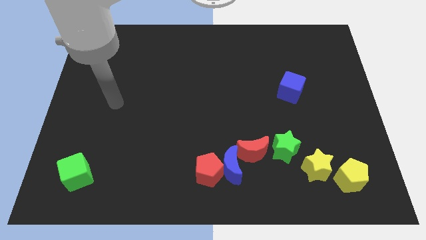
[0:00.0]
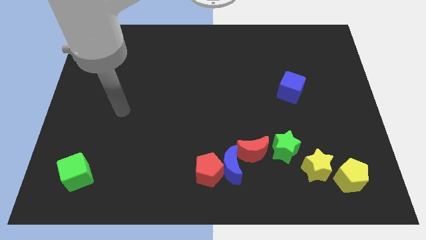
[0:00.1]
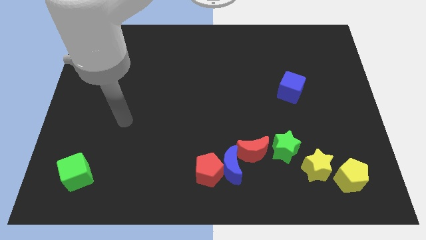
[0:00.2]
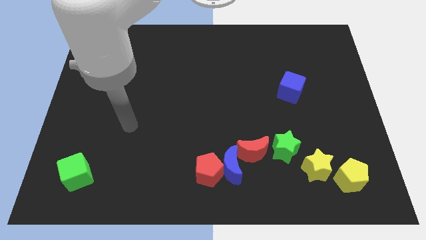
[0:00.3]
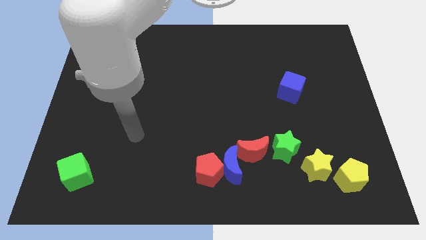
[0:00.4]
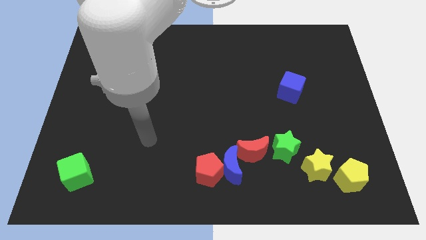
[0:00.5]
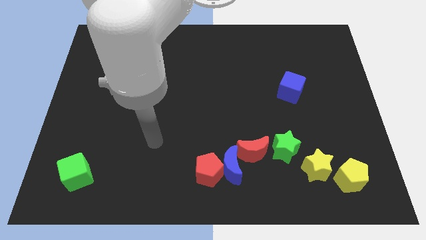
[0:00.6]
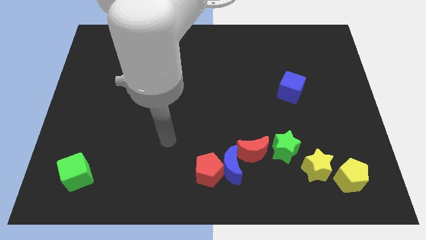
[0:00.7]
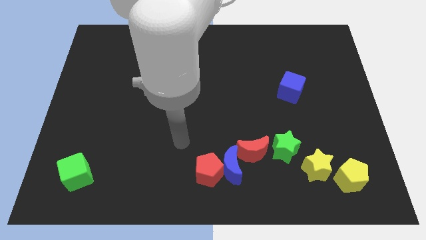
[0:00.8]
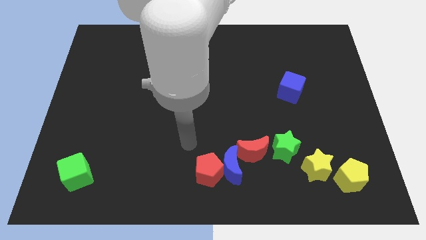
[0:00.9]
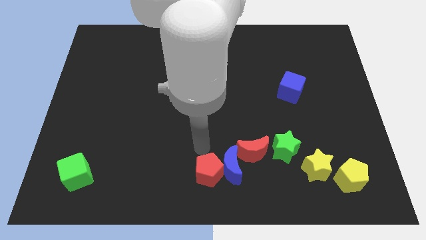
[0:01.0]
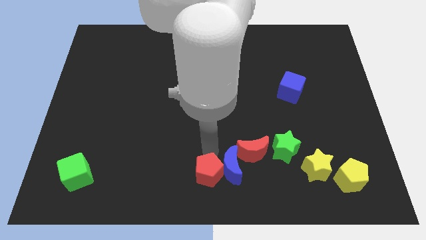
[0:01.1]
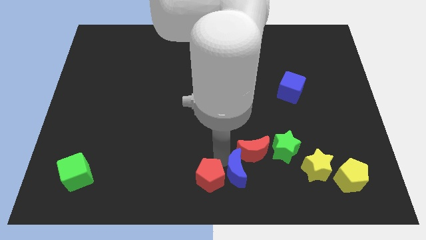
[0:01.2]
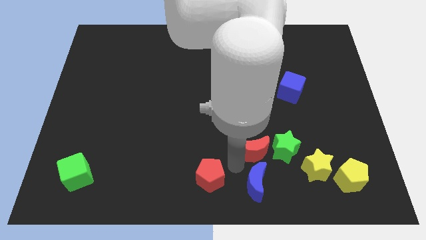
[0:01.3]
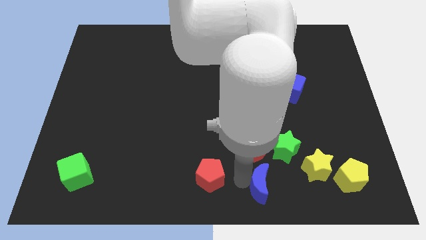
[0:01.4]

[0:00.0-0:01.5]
pull the red pentagon apart from the blue moon

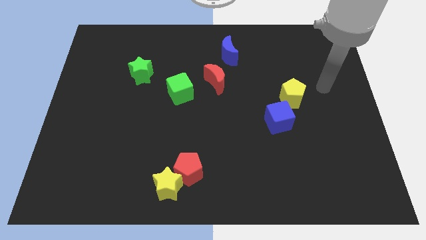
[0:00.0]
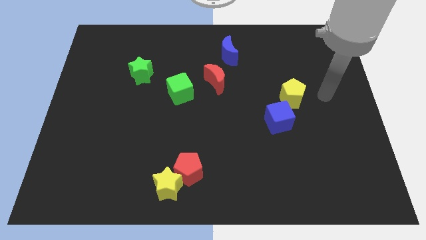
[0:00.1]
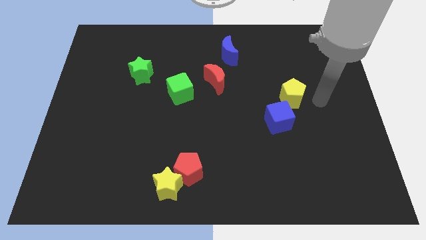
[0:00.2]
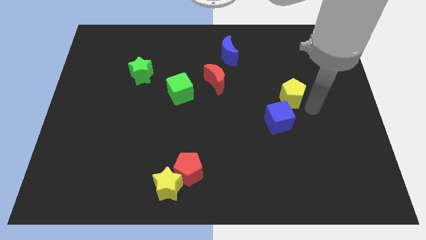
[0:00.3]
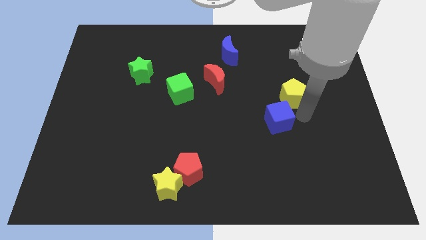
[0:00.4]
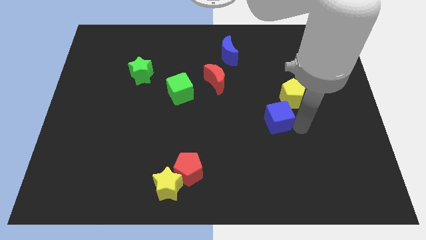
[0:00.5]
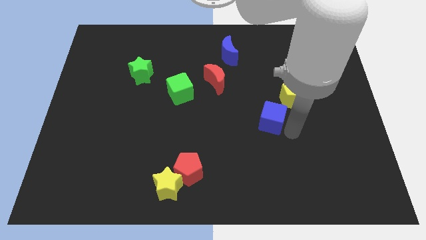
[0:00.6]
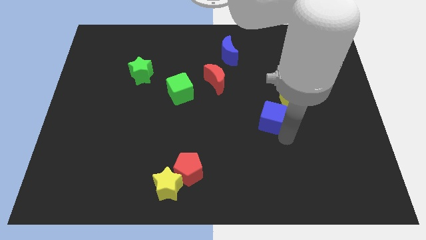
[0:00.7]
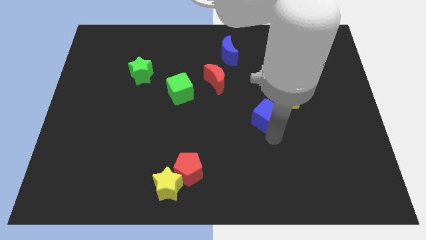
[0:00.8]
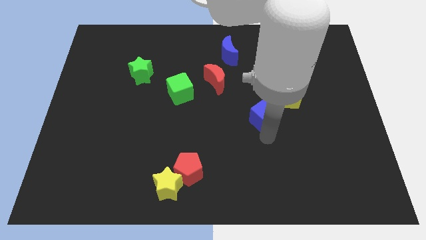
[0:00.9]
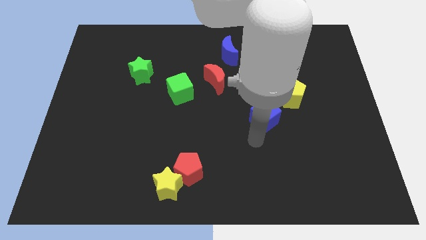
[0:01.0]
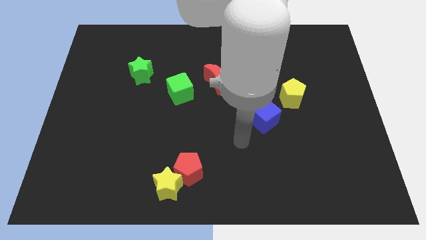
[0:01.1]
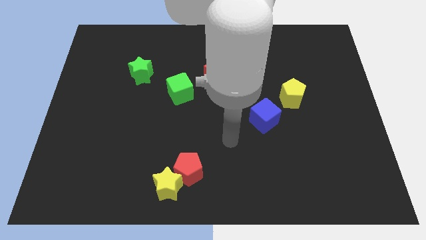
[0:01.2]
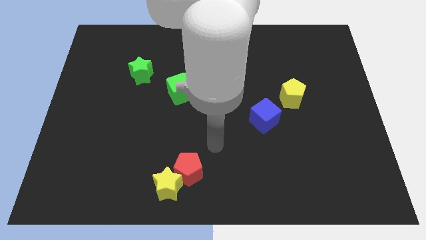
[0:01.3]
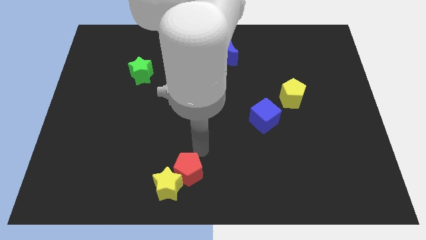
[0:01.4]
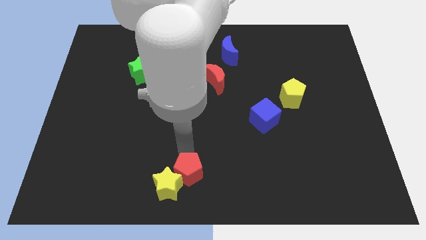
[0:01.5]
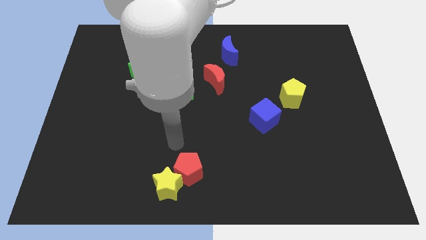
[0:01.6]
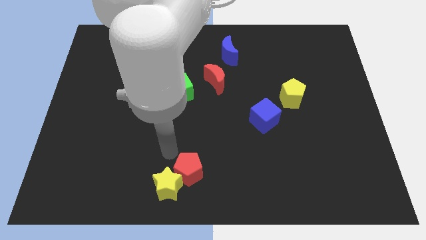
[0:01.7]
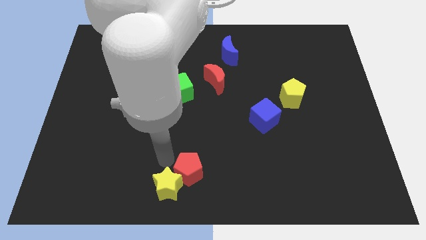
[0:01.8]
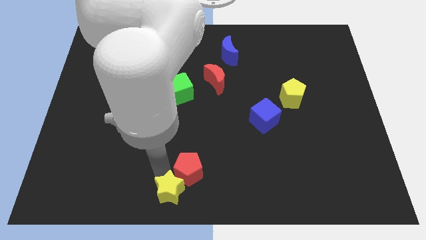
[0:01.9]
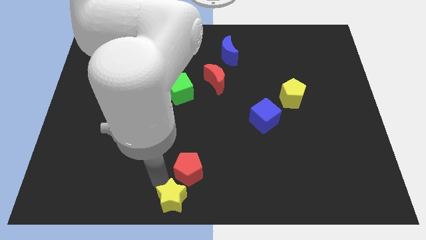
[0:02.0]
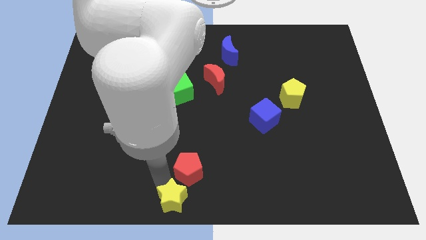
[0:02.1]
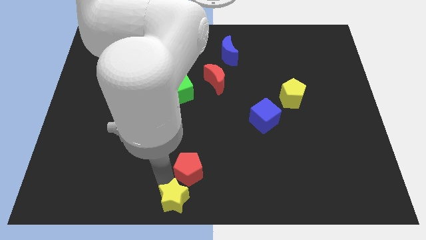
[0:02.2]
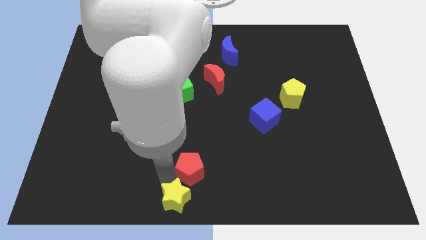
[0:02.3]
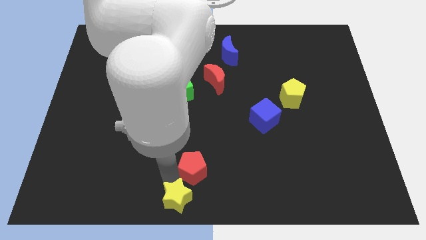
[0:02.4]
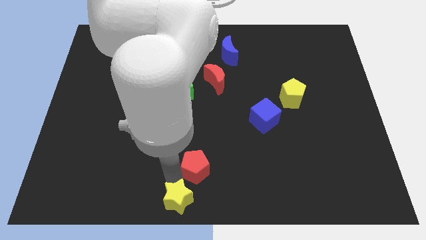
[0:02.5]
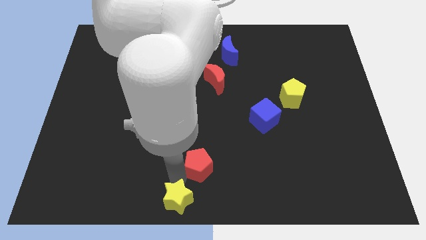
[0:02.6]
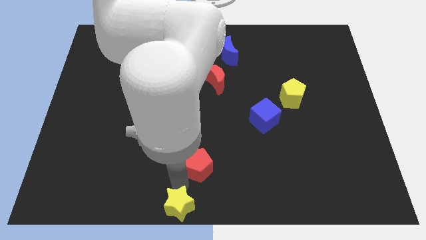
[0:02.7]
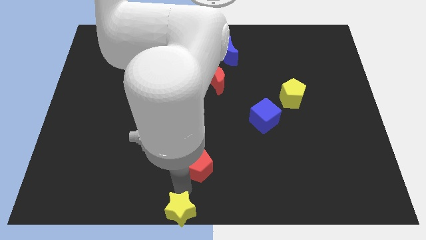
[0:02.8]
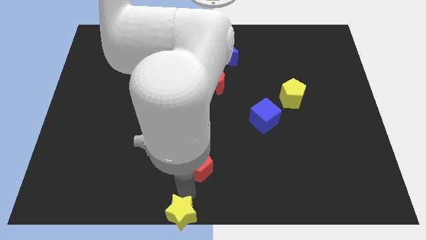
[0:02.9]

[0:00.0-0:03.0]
move the red pentagon away from the yellow star

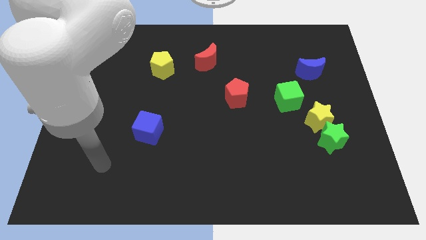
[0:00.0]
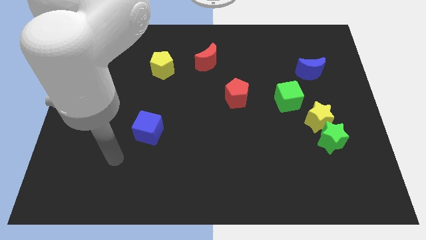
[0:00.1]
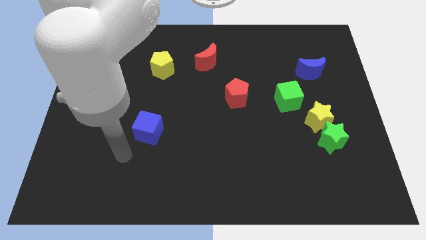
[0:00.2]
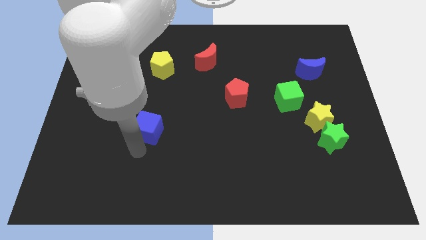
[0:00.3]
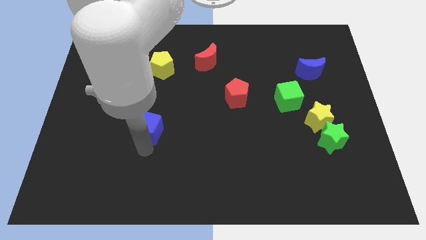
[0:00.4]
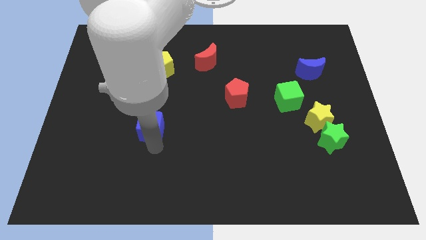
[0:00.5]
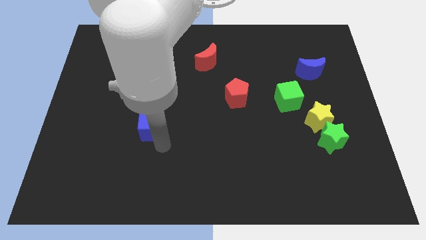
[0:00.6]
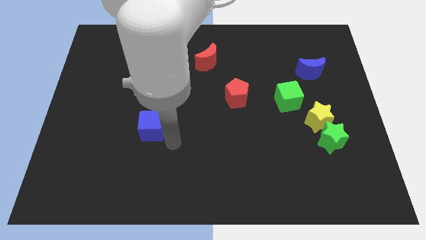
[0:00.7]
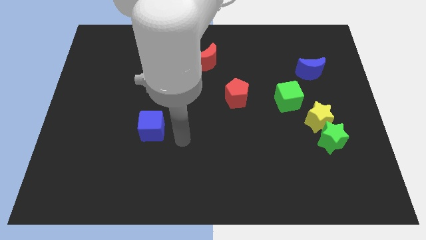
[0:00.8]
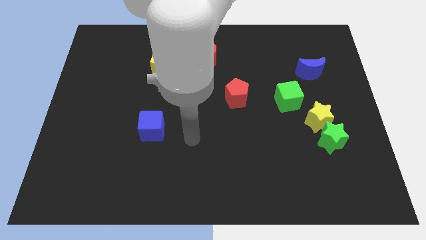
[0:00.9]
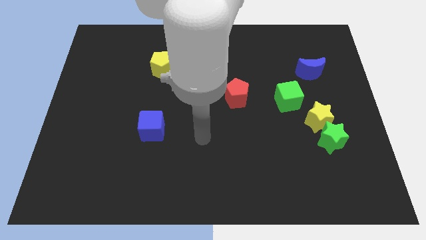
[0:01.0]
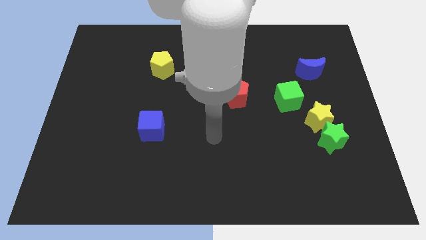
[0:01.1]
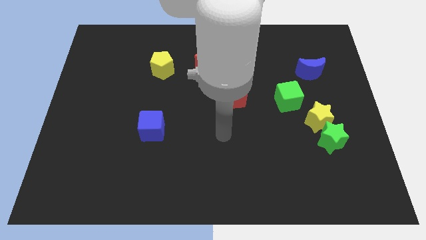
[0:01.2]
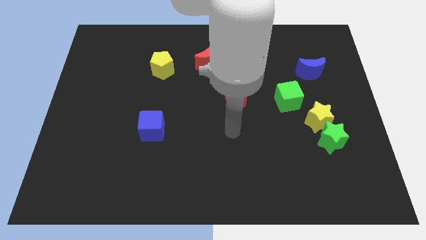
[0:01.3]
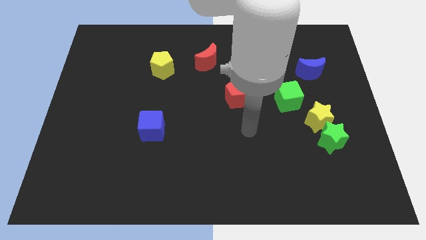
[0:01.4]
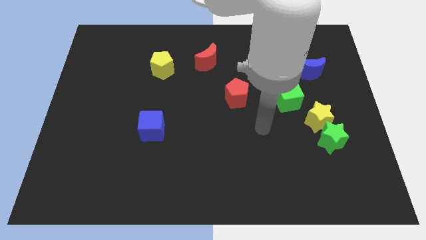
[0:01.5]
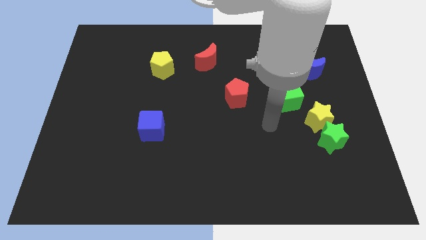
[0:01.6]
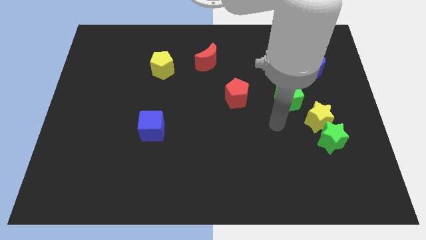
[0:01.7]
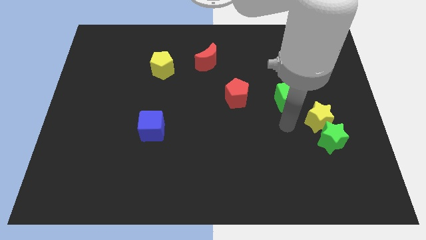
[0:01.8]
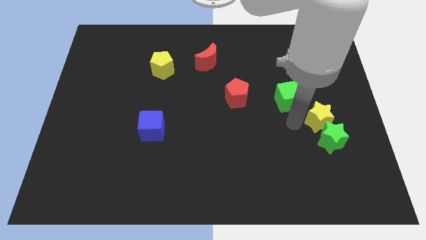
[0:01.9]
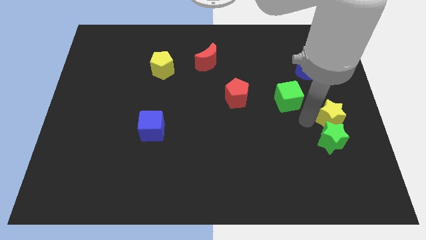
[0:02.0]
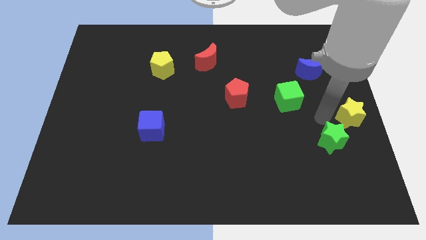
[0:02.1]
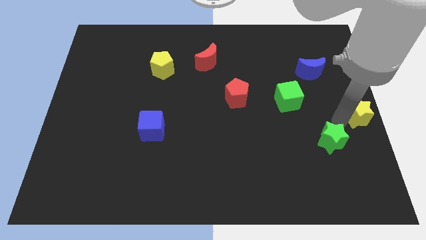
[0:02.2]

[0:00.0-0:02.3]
move the green star away from the yellow star

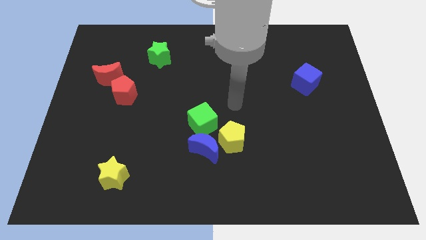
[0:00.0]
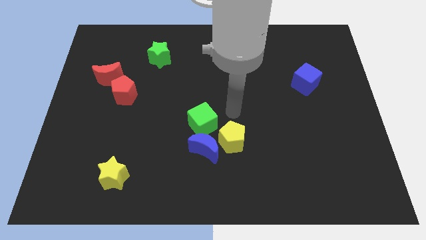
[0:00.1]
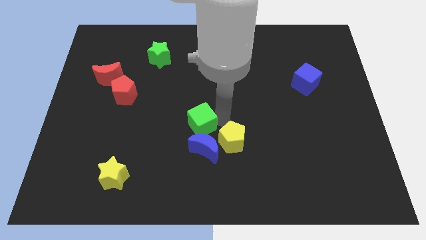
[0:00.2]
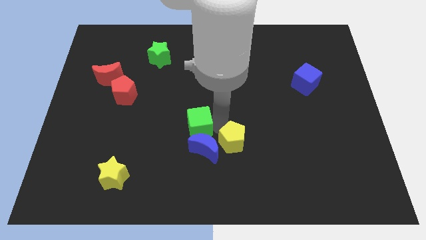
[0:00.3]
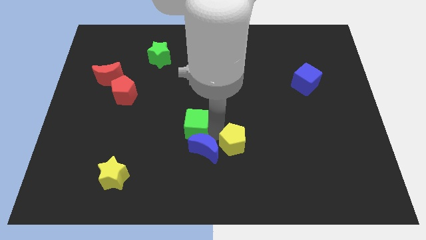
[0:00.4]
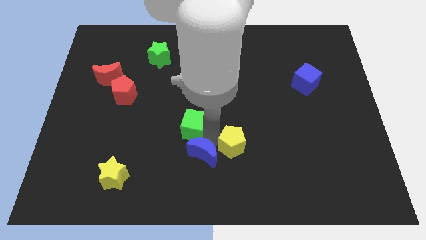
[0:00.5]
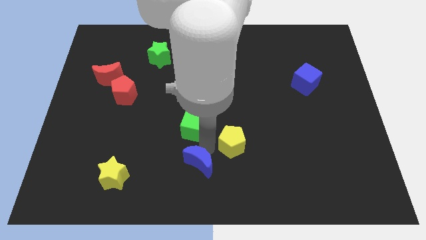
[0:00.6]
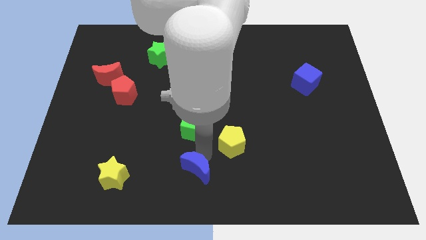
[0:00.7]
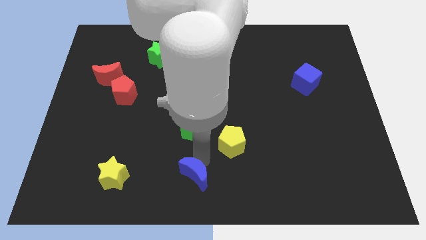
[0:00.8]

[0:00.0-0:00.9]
separate the blue moon from the yellow pentagon and green cube

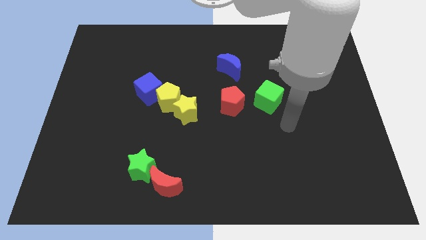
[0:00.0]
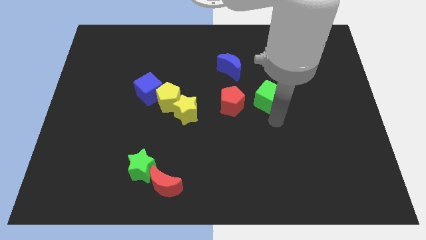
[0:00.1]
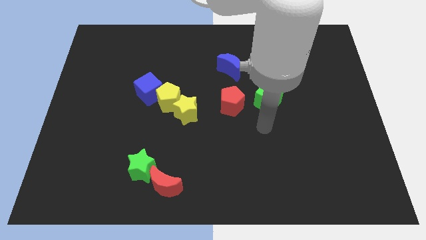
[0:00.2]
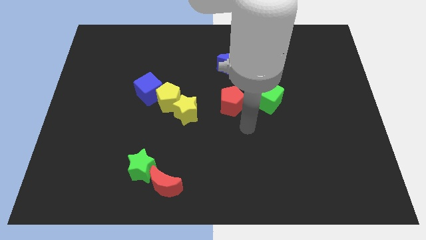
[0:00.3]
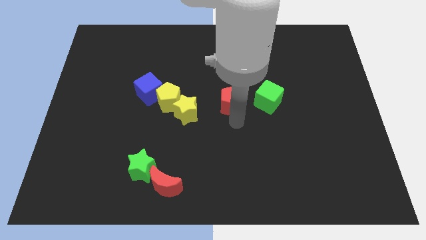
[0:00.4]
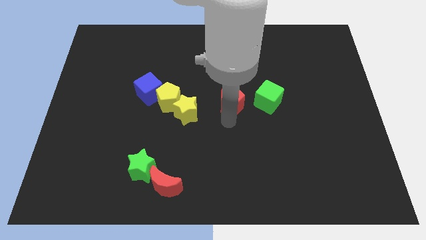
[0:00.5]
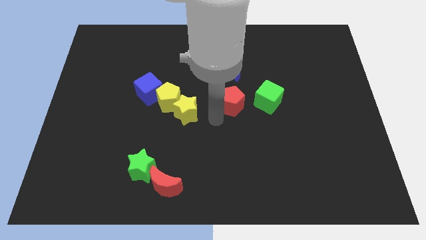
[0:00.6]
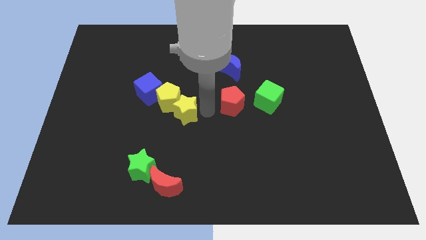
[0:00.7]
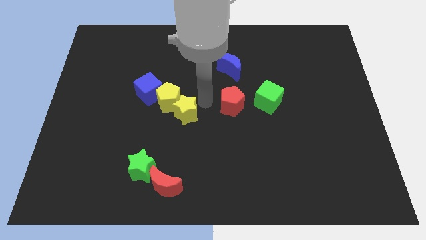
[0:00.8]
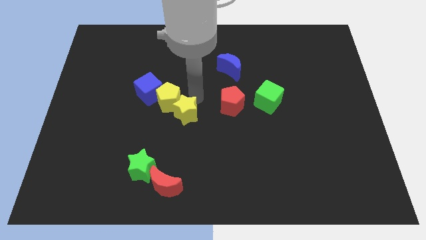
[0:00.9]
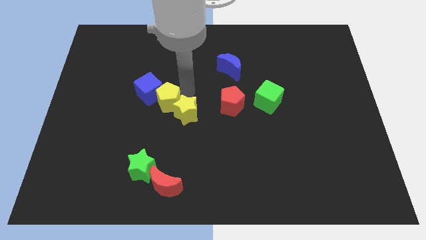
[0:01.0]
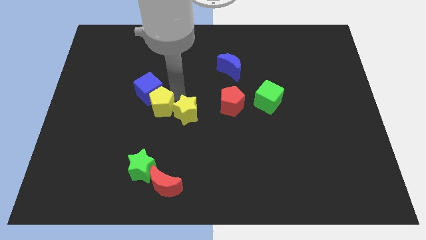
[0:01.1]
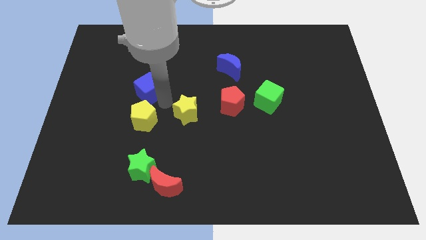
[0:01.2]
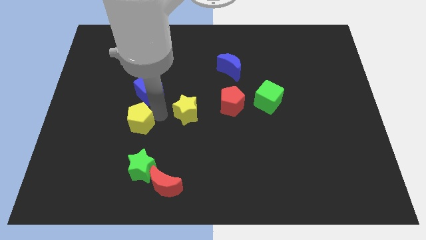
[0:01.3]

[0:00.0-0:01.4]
separate the yellow star from the yellow pentagon
